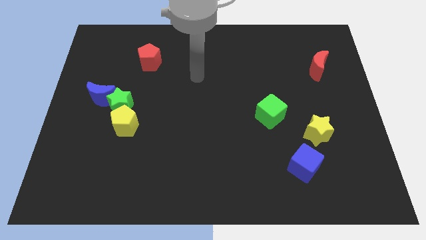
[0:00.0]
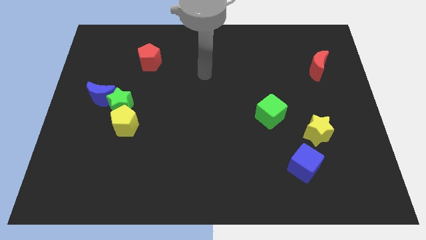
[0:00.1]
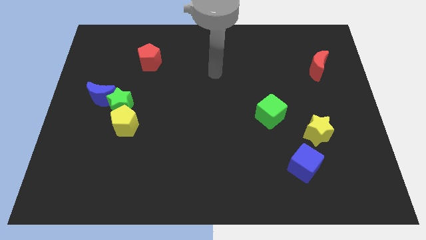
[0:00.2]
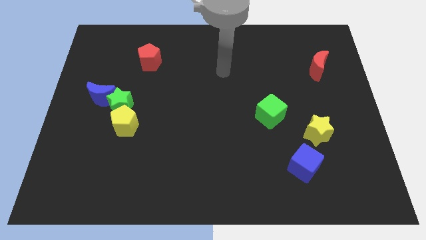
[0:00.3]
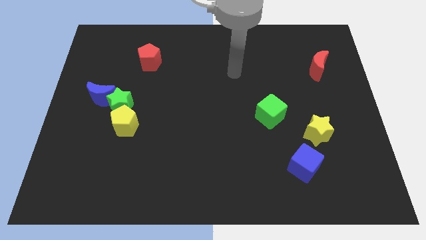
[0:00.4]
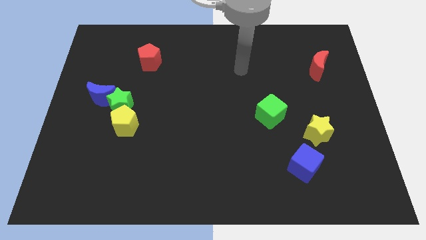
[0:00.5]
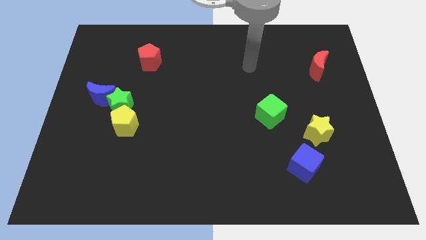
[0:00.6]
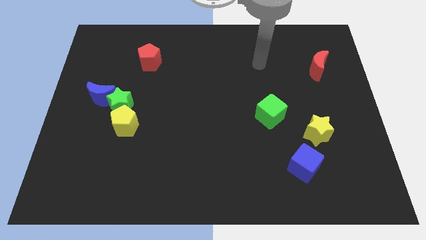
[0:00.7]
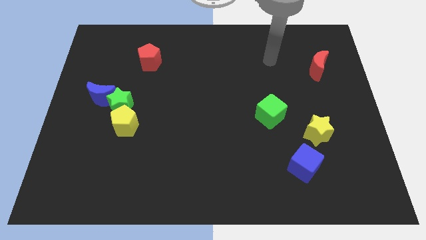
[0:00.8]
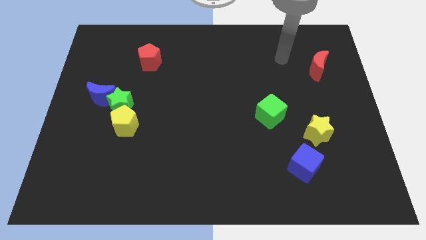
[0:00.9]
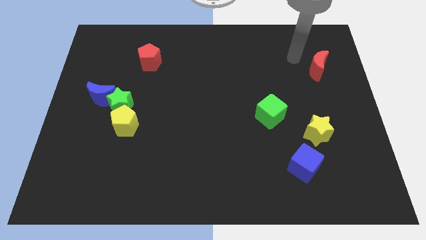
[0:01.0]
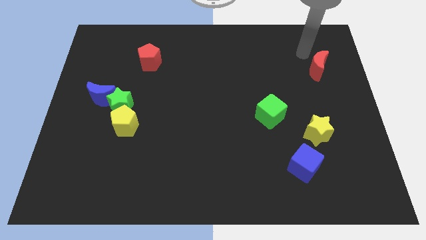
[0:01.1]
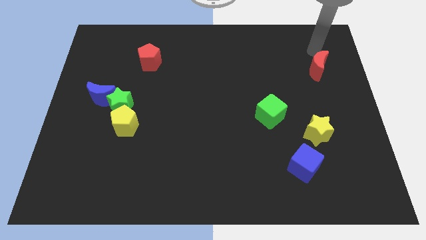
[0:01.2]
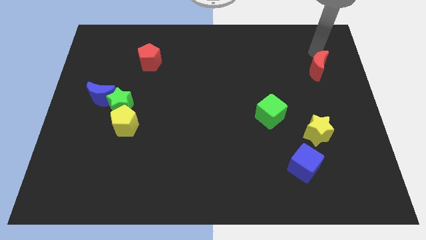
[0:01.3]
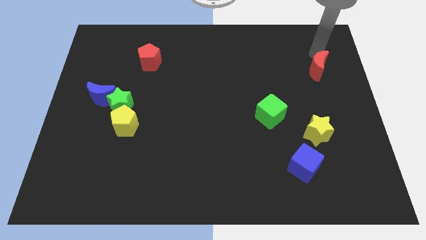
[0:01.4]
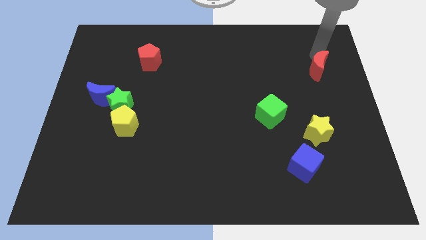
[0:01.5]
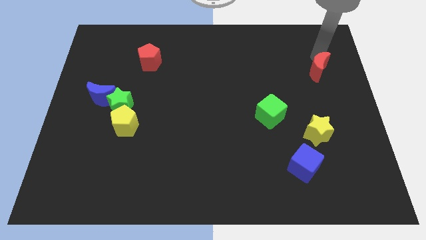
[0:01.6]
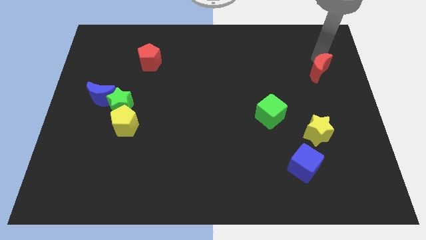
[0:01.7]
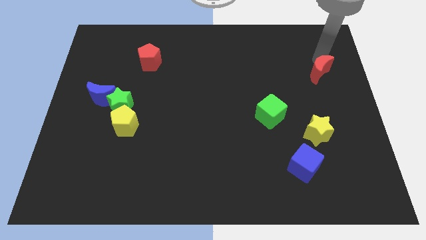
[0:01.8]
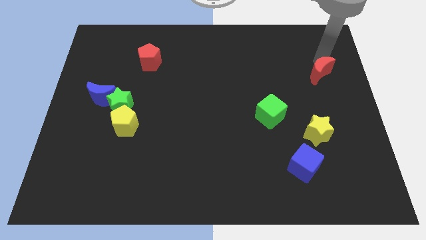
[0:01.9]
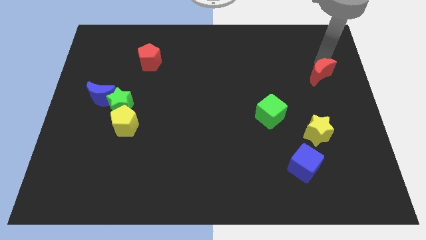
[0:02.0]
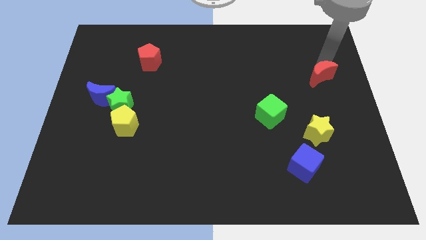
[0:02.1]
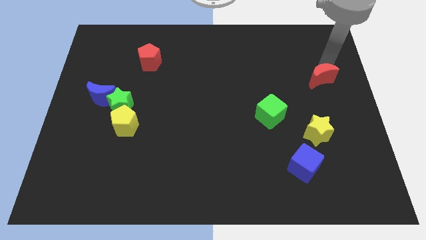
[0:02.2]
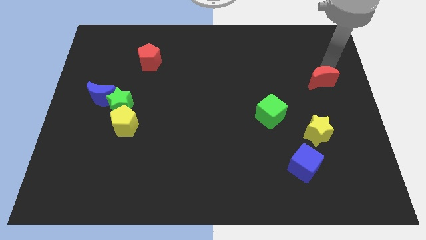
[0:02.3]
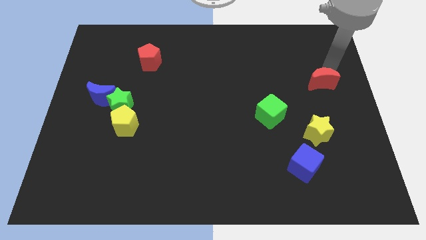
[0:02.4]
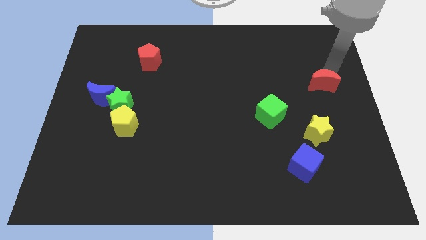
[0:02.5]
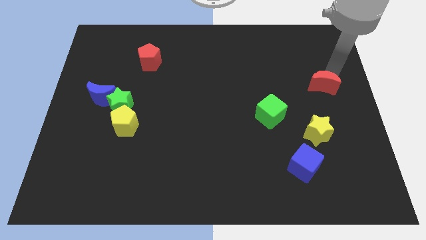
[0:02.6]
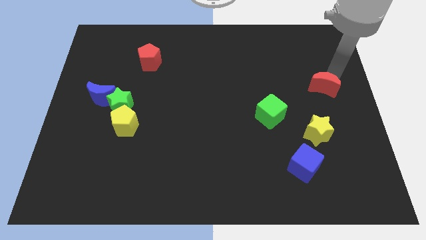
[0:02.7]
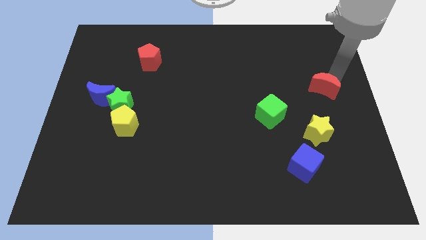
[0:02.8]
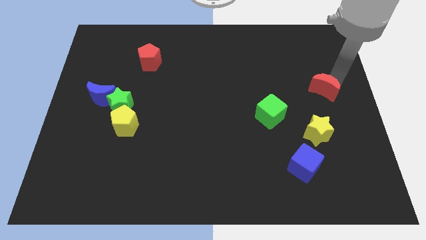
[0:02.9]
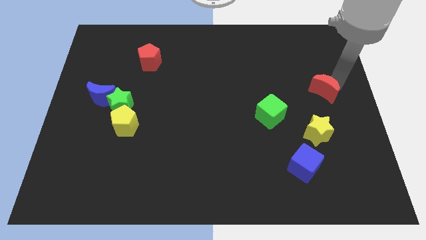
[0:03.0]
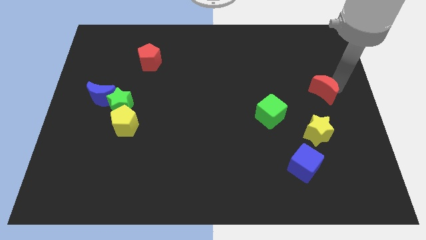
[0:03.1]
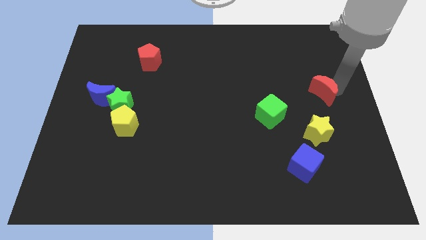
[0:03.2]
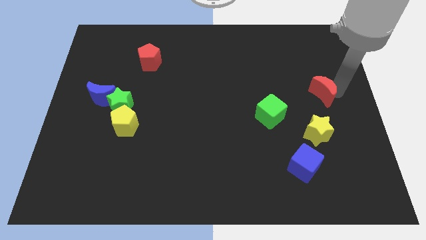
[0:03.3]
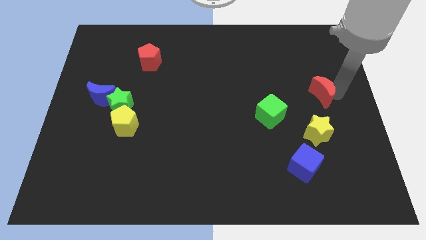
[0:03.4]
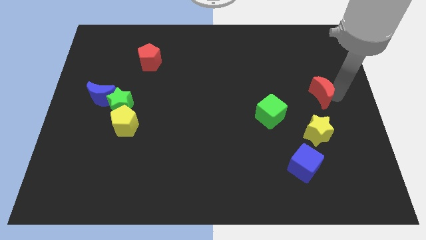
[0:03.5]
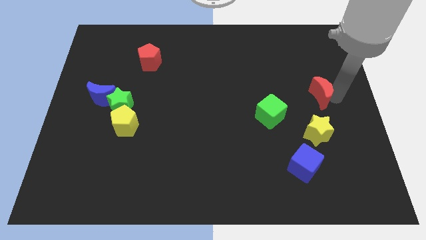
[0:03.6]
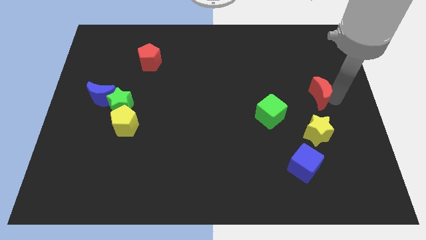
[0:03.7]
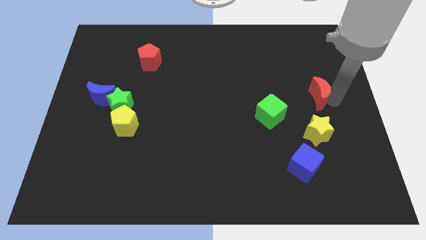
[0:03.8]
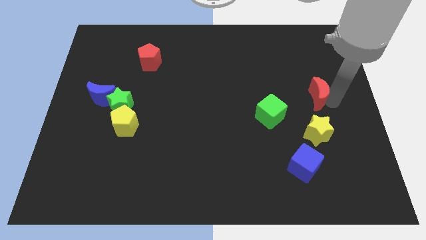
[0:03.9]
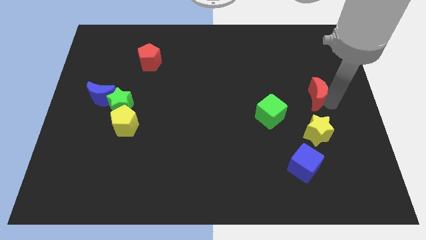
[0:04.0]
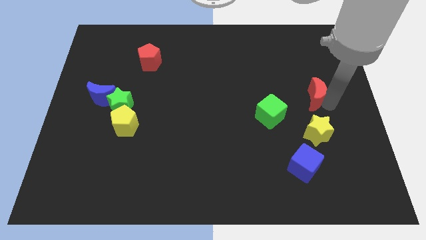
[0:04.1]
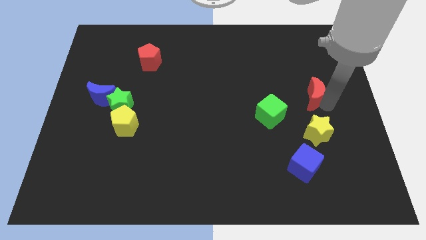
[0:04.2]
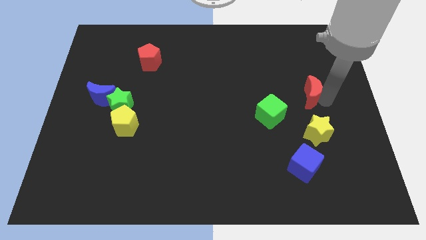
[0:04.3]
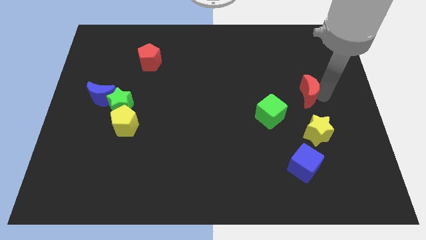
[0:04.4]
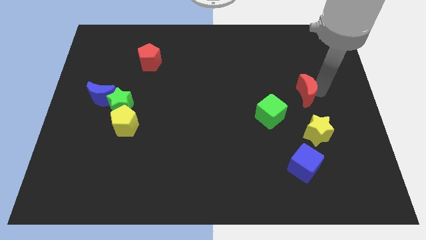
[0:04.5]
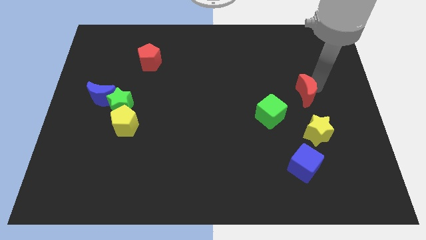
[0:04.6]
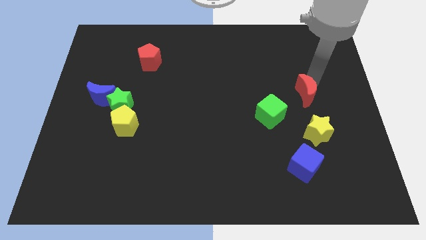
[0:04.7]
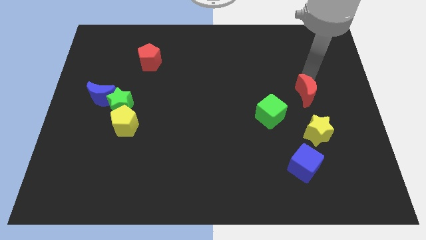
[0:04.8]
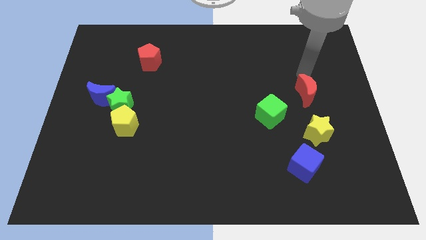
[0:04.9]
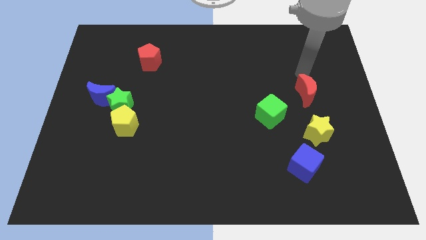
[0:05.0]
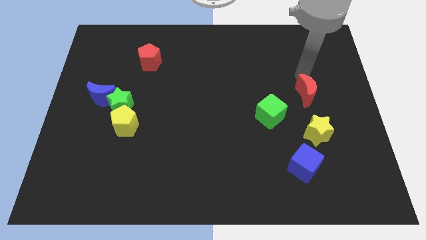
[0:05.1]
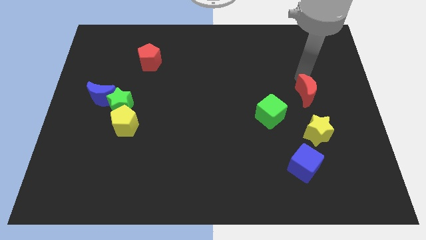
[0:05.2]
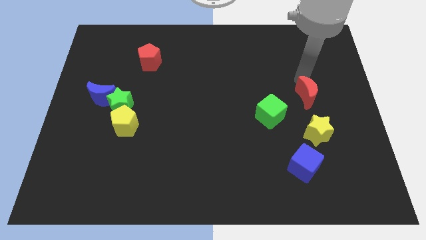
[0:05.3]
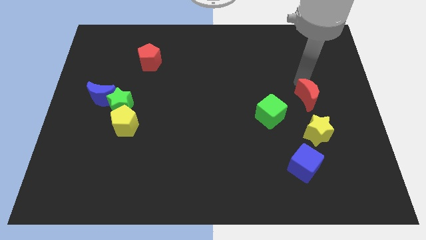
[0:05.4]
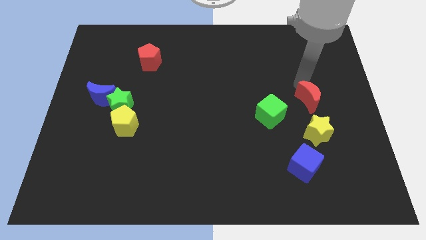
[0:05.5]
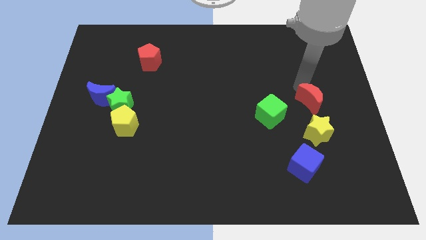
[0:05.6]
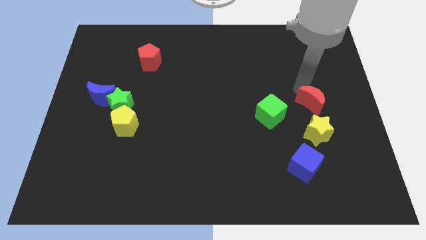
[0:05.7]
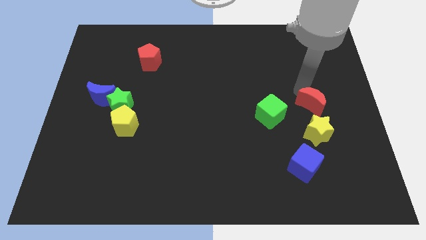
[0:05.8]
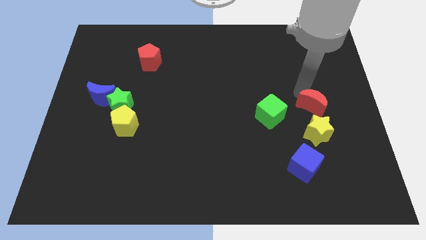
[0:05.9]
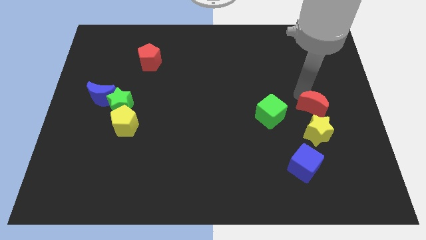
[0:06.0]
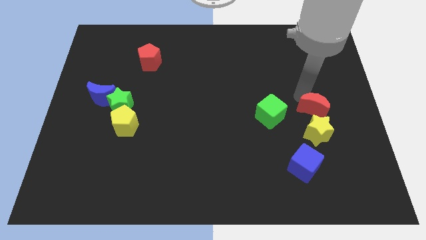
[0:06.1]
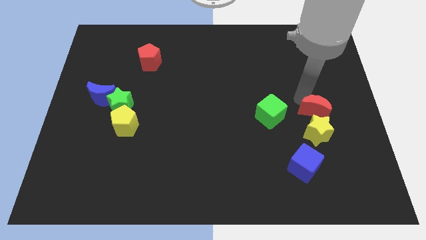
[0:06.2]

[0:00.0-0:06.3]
slide the red moon towards the yellow star

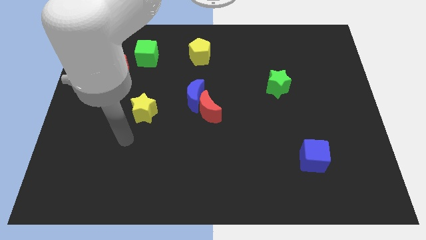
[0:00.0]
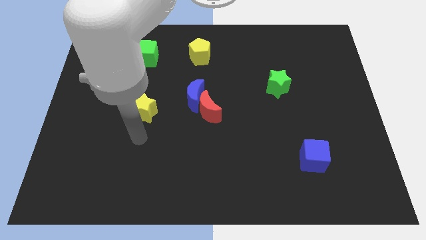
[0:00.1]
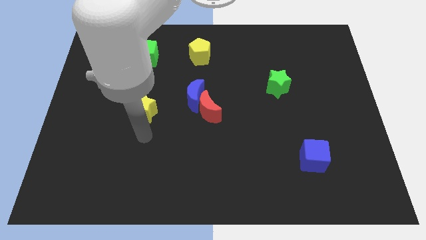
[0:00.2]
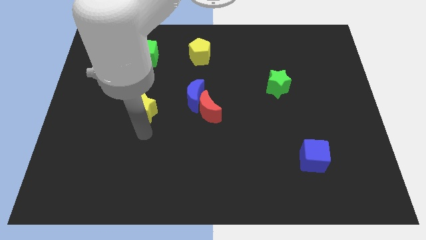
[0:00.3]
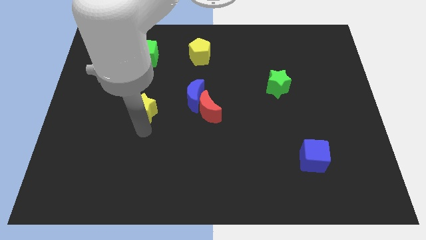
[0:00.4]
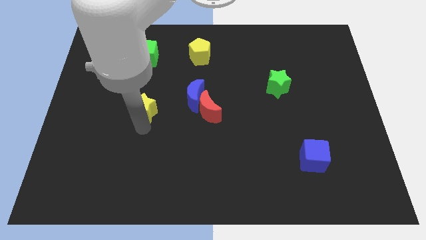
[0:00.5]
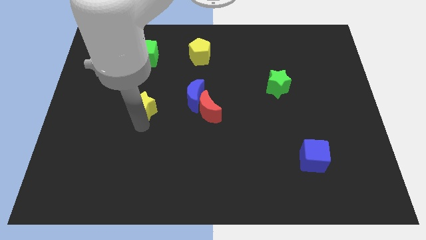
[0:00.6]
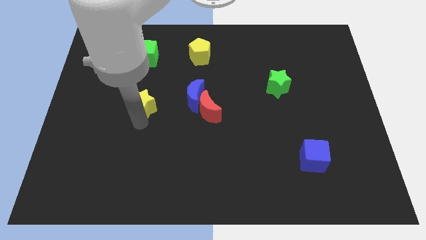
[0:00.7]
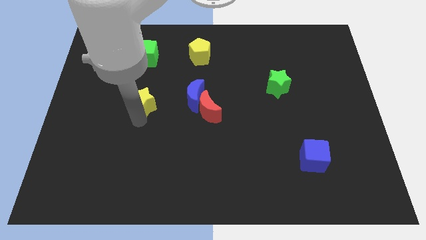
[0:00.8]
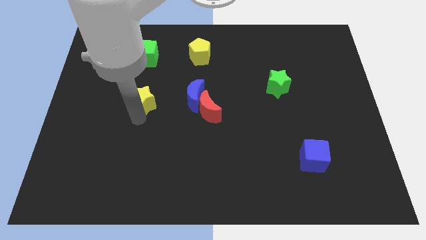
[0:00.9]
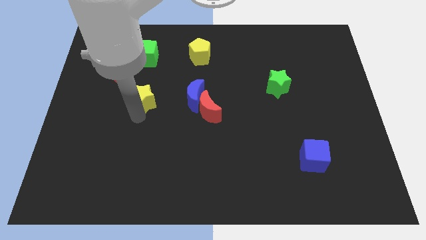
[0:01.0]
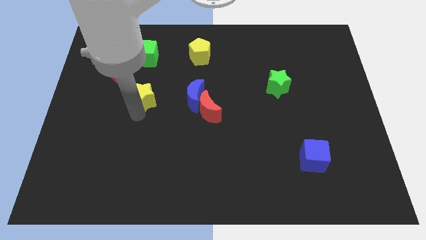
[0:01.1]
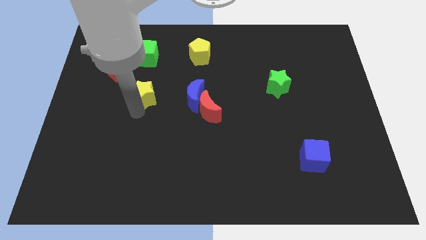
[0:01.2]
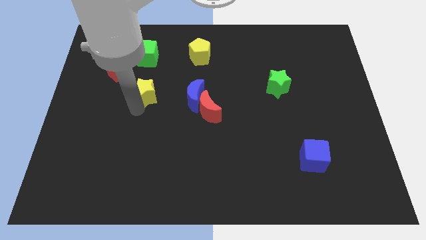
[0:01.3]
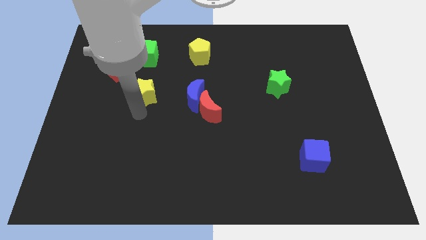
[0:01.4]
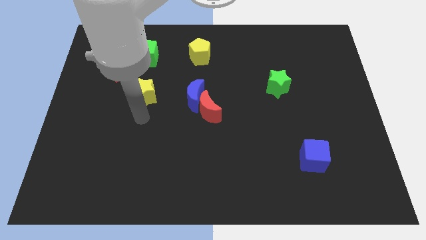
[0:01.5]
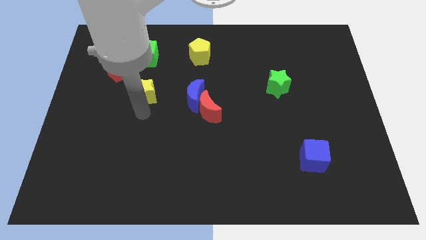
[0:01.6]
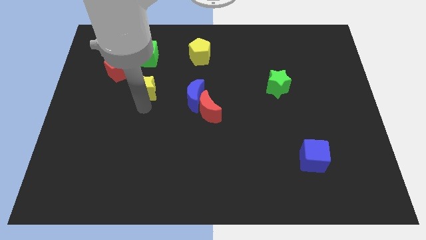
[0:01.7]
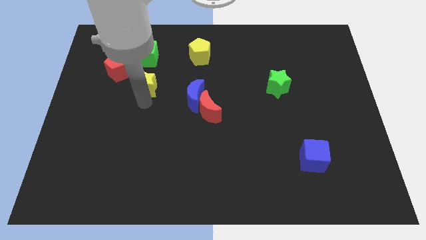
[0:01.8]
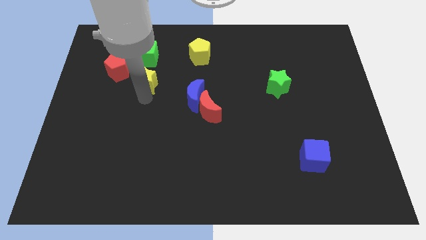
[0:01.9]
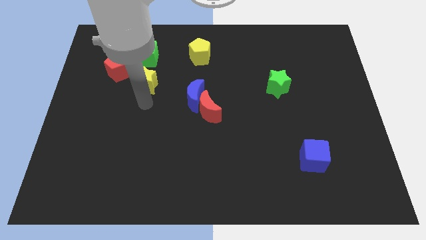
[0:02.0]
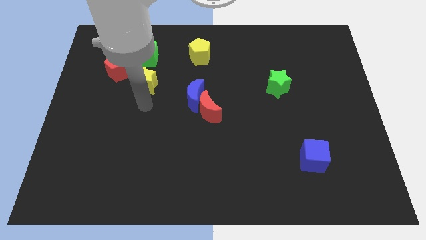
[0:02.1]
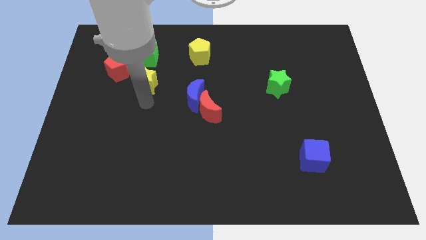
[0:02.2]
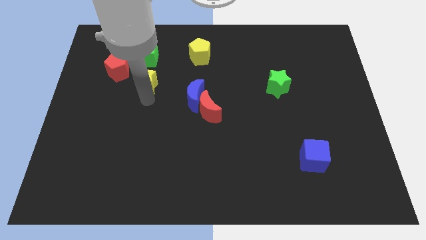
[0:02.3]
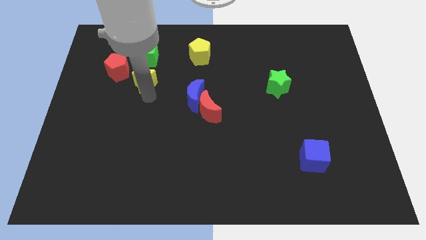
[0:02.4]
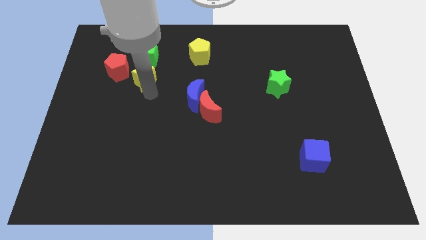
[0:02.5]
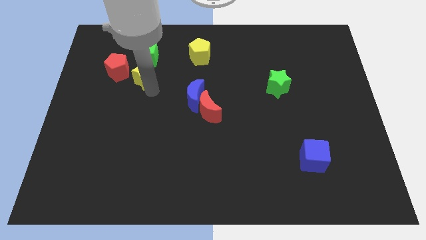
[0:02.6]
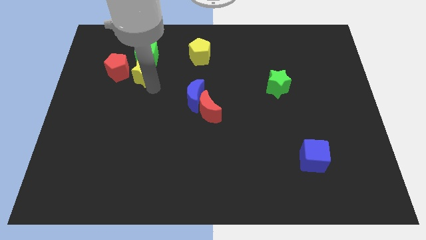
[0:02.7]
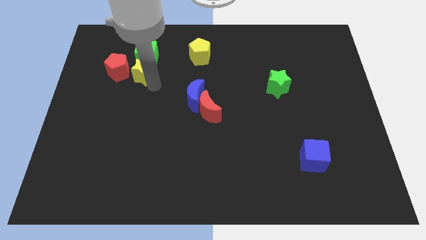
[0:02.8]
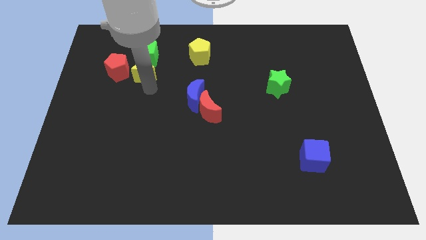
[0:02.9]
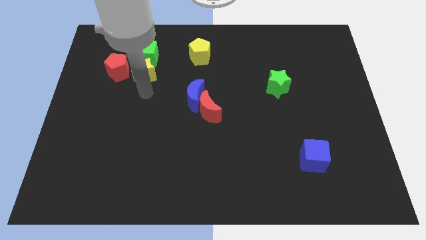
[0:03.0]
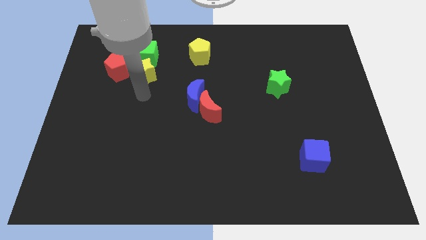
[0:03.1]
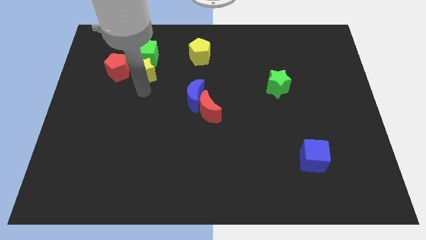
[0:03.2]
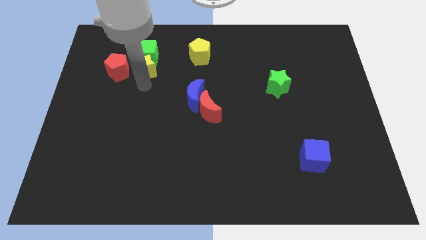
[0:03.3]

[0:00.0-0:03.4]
push the yellow star close to the green cube
